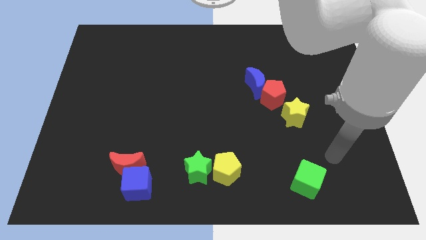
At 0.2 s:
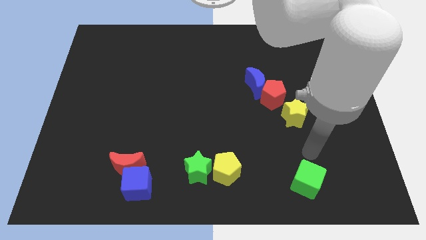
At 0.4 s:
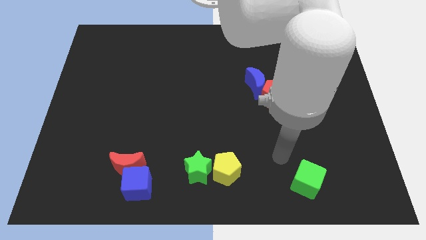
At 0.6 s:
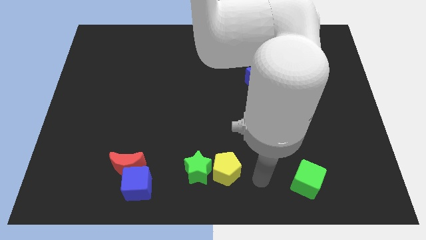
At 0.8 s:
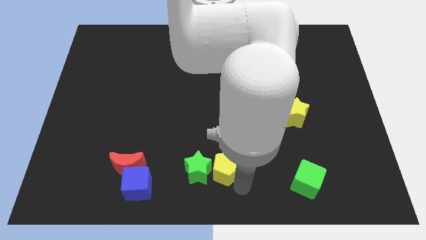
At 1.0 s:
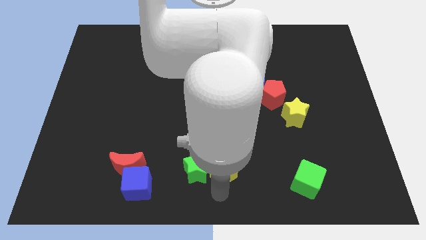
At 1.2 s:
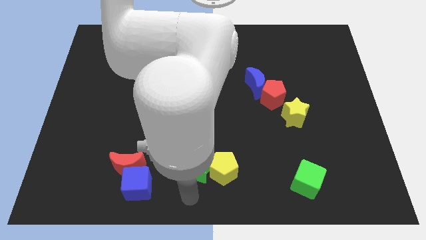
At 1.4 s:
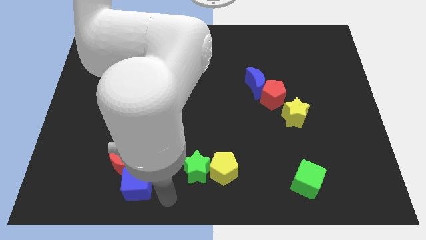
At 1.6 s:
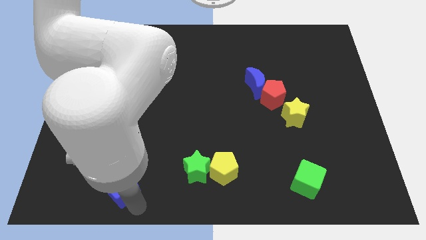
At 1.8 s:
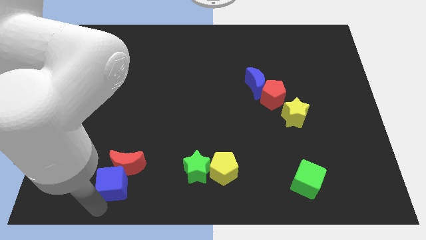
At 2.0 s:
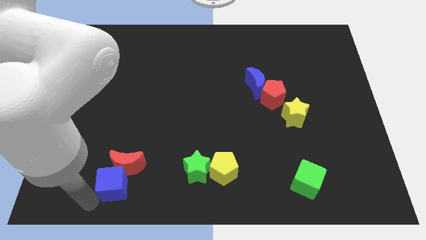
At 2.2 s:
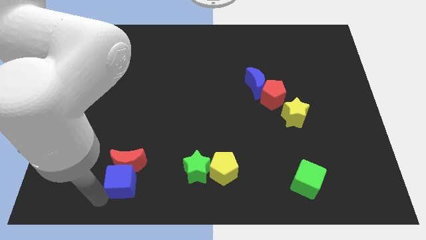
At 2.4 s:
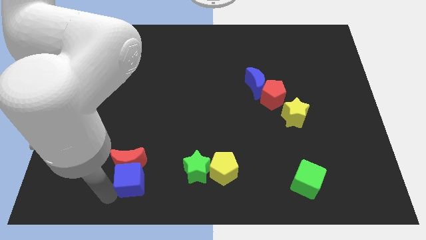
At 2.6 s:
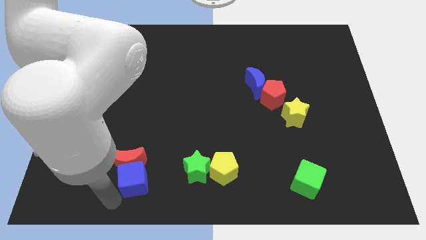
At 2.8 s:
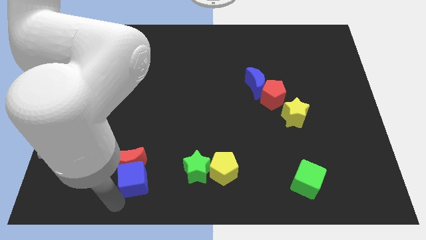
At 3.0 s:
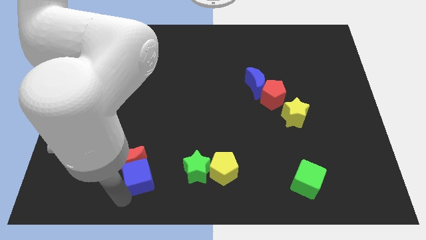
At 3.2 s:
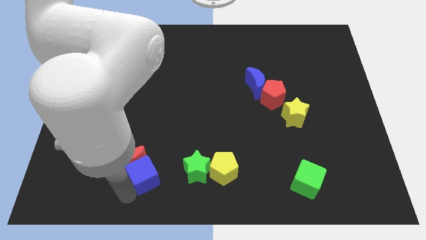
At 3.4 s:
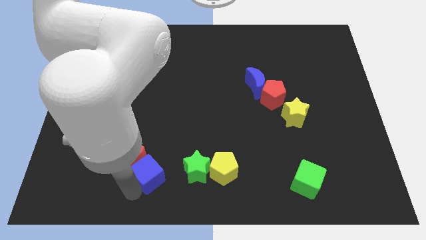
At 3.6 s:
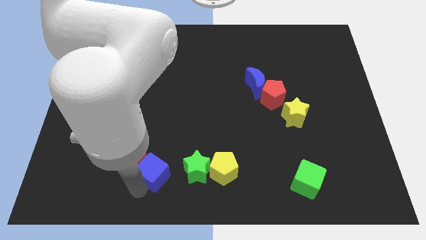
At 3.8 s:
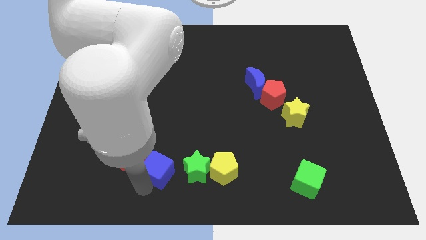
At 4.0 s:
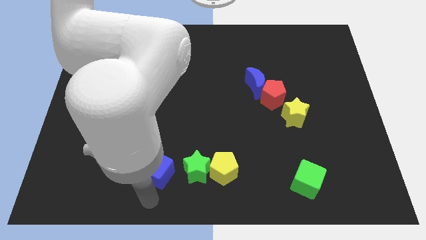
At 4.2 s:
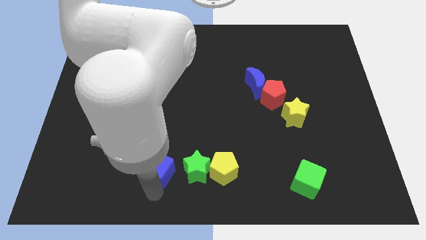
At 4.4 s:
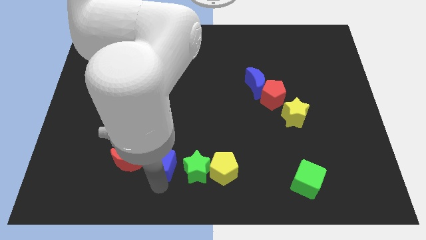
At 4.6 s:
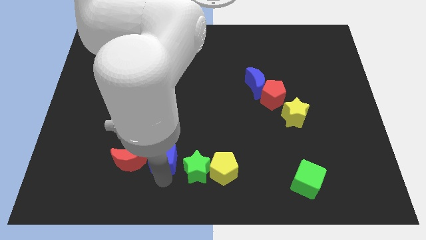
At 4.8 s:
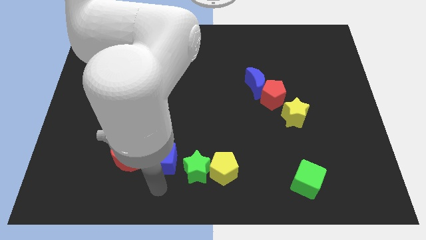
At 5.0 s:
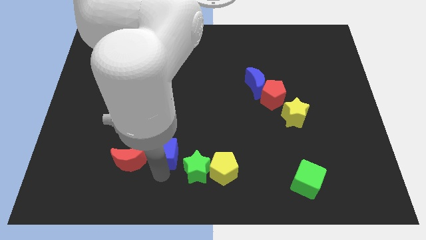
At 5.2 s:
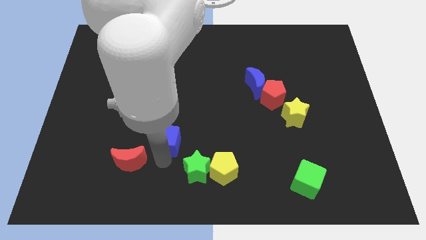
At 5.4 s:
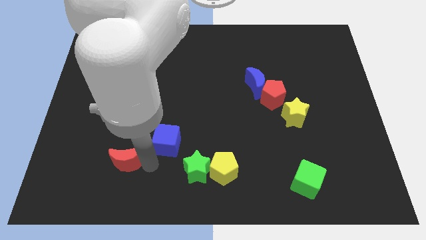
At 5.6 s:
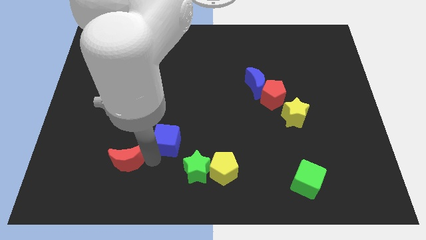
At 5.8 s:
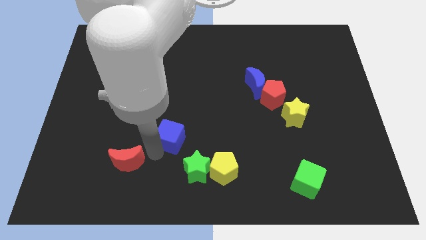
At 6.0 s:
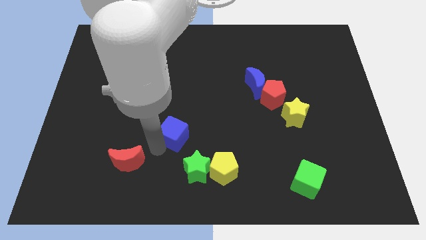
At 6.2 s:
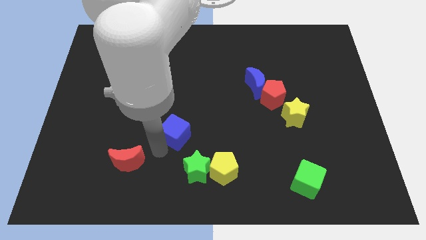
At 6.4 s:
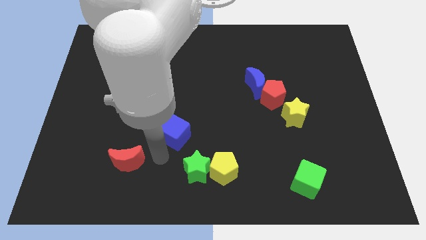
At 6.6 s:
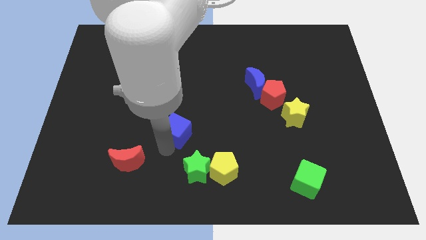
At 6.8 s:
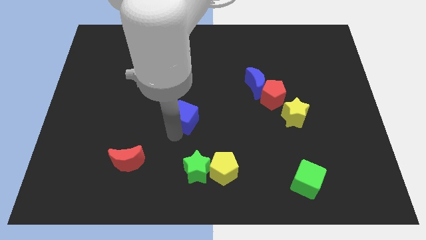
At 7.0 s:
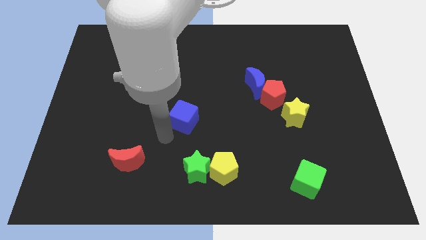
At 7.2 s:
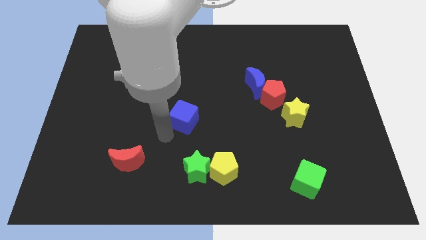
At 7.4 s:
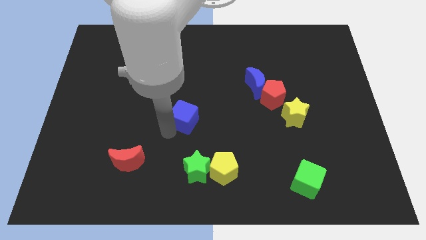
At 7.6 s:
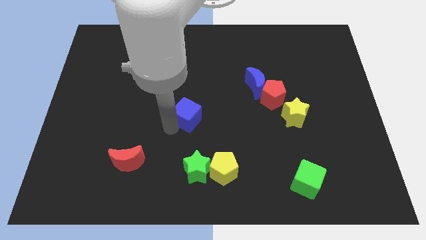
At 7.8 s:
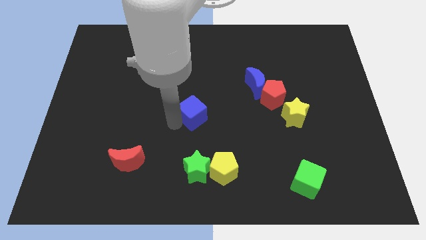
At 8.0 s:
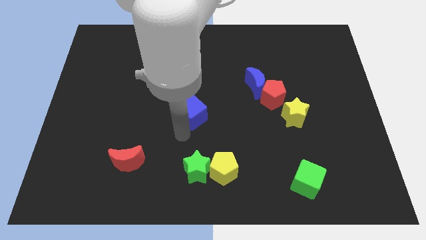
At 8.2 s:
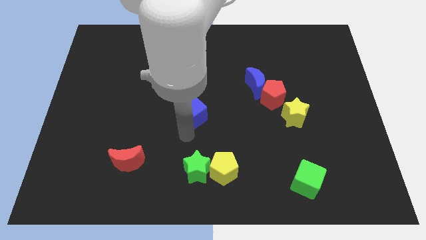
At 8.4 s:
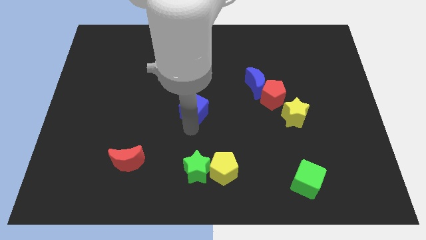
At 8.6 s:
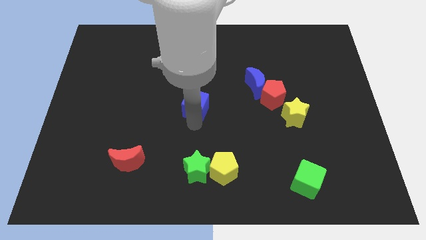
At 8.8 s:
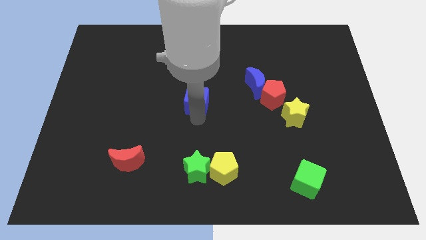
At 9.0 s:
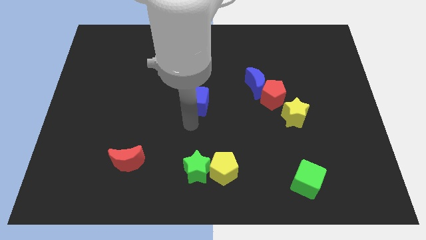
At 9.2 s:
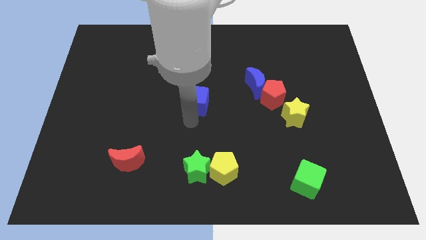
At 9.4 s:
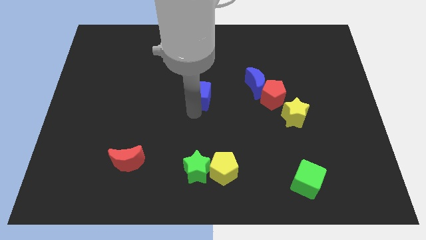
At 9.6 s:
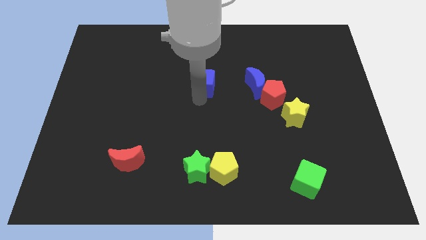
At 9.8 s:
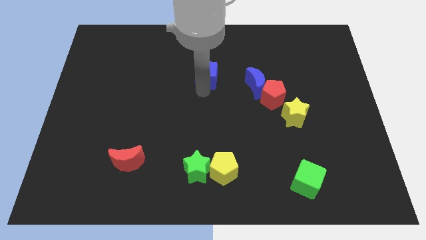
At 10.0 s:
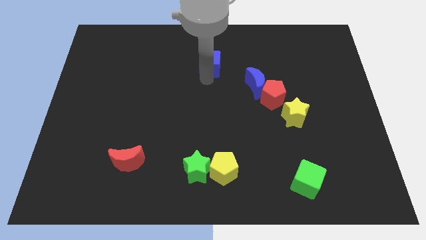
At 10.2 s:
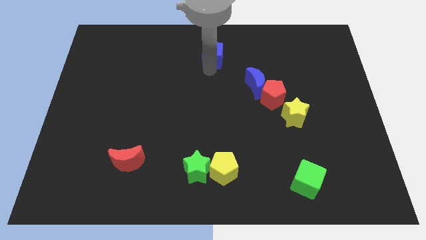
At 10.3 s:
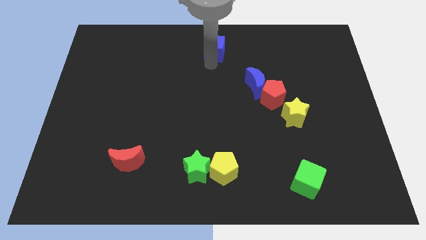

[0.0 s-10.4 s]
push the blue cube to the top side

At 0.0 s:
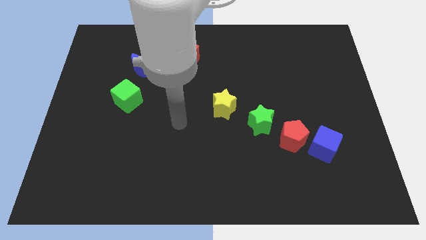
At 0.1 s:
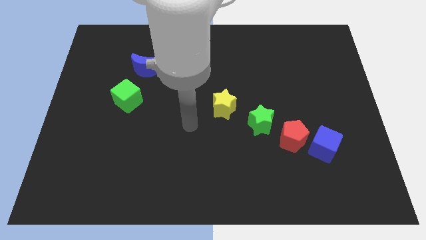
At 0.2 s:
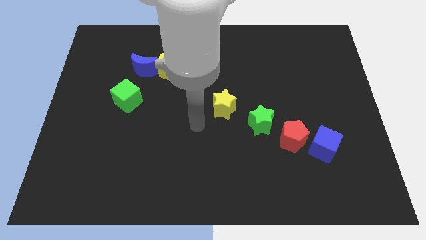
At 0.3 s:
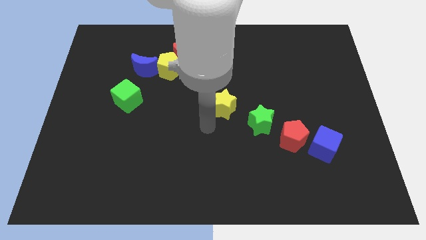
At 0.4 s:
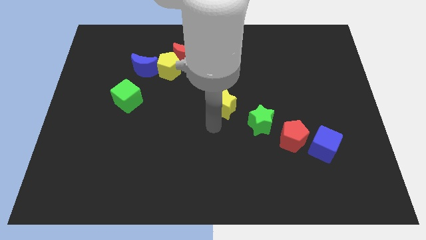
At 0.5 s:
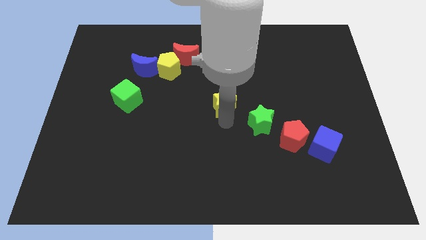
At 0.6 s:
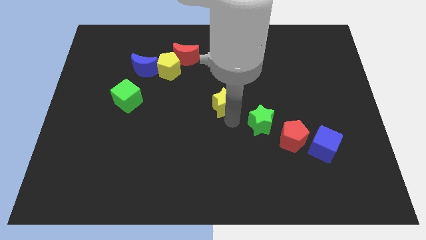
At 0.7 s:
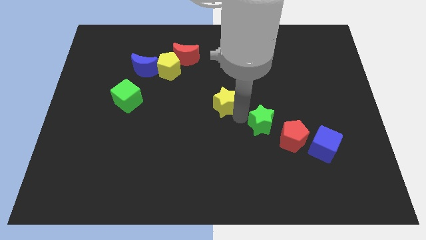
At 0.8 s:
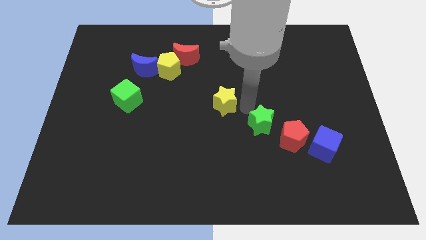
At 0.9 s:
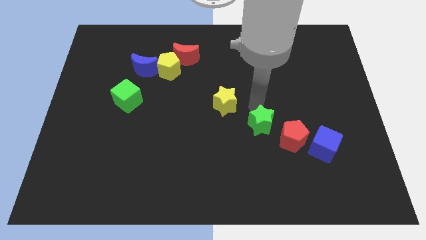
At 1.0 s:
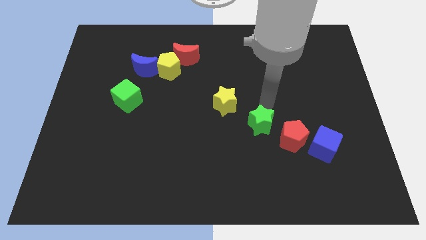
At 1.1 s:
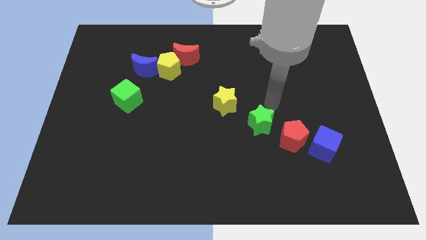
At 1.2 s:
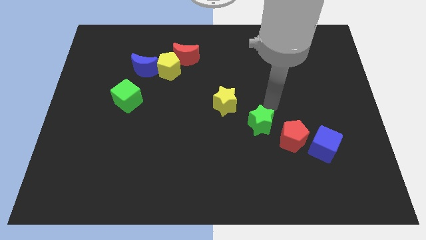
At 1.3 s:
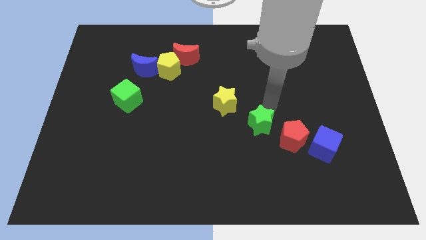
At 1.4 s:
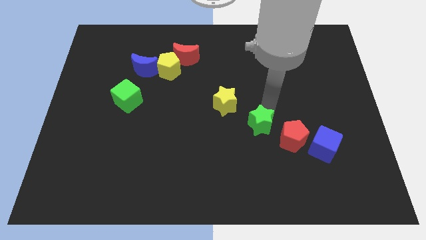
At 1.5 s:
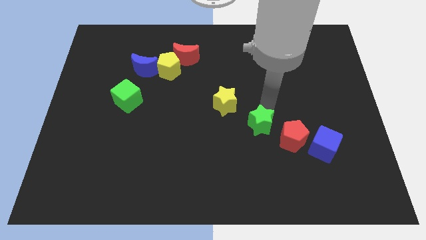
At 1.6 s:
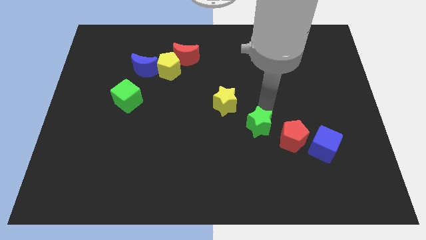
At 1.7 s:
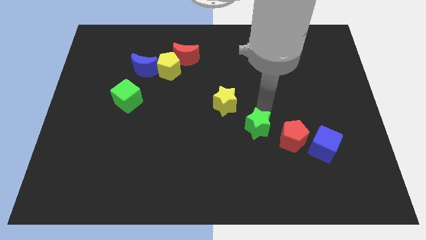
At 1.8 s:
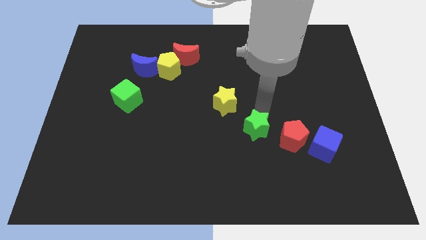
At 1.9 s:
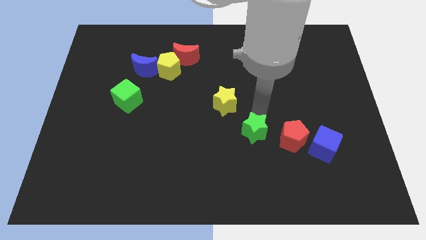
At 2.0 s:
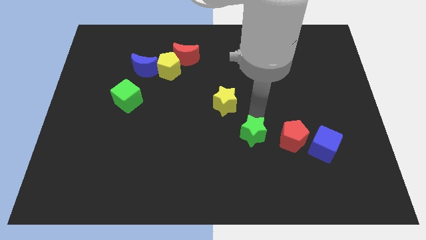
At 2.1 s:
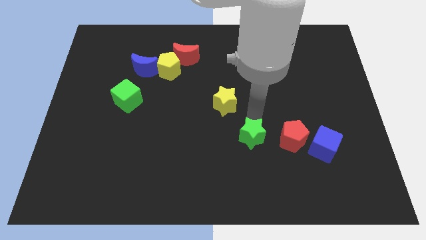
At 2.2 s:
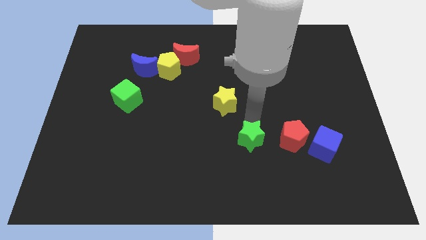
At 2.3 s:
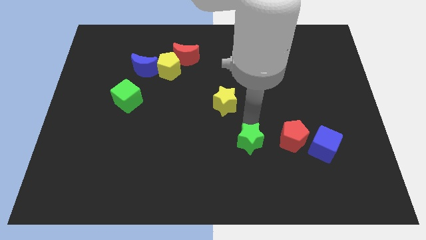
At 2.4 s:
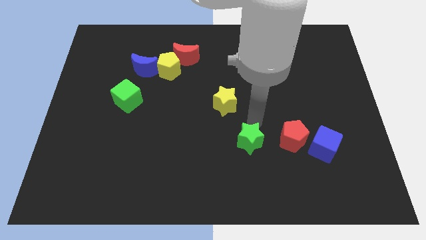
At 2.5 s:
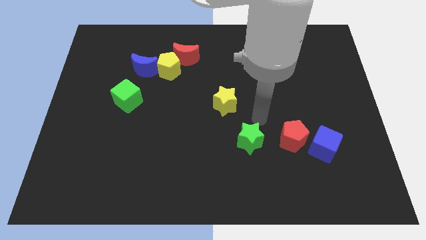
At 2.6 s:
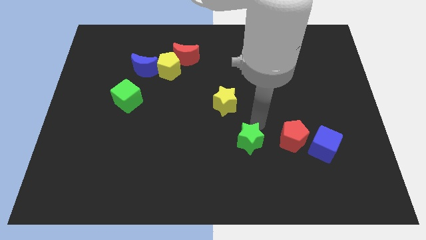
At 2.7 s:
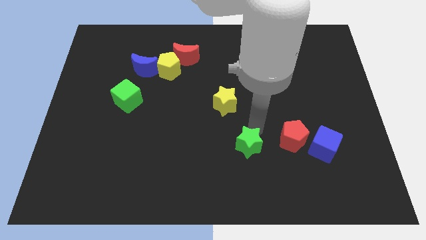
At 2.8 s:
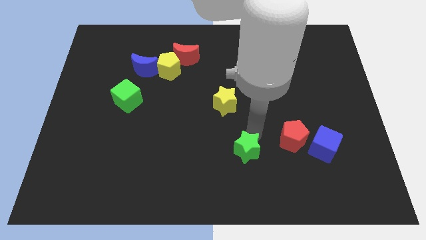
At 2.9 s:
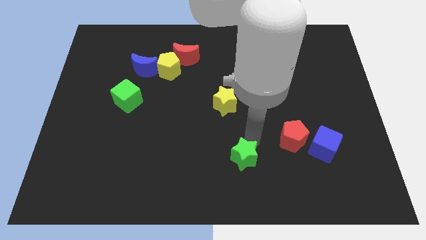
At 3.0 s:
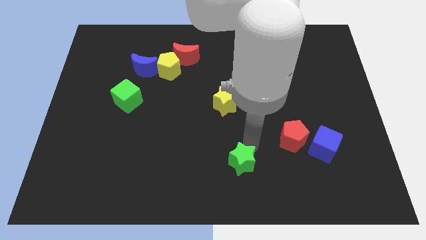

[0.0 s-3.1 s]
push the green star to the bottom
